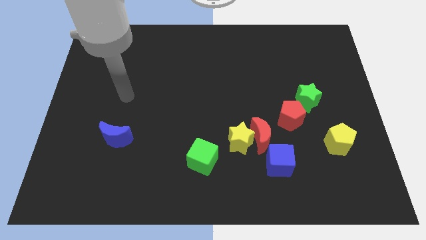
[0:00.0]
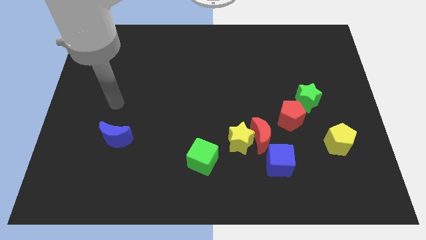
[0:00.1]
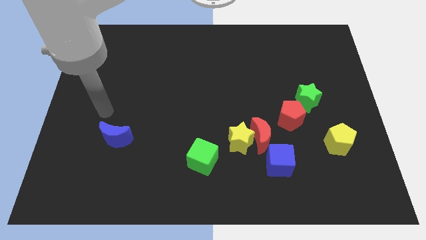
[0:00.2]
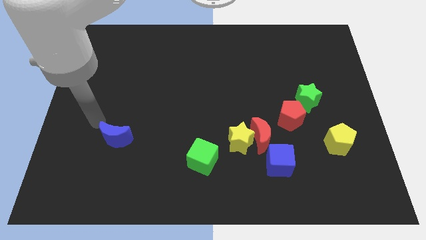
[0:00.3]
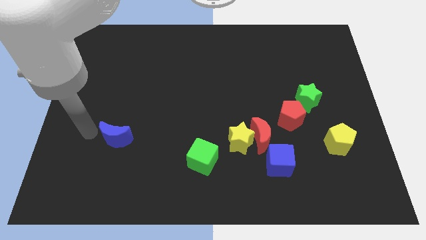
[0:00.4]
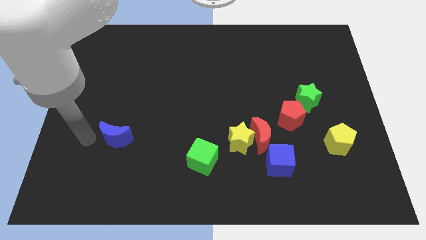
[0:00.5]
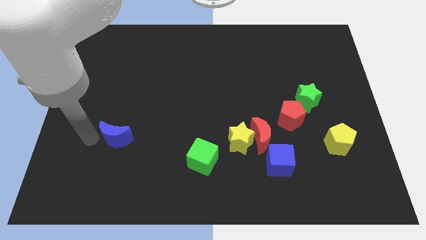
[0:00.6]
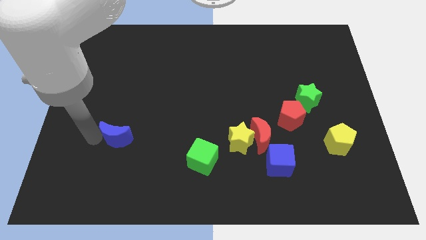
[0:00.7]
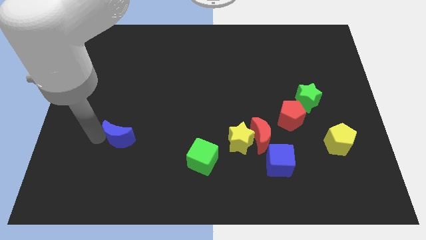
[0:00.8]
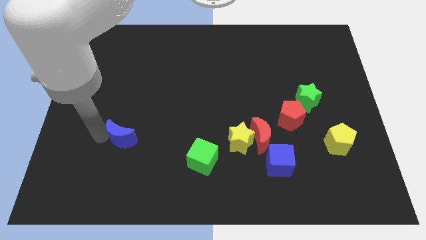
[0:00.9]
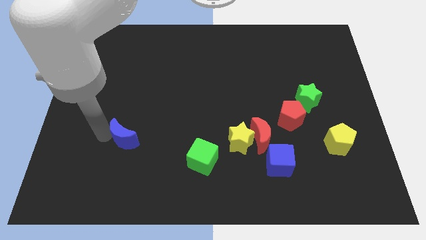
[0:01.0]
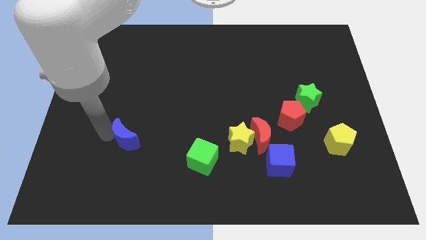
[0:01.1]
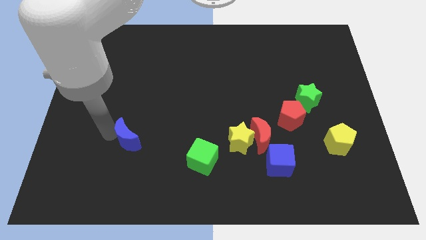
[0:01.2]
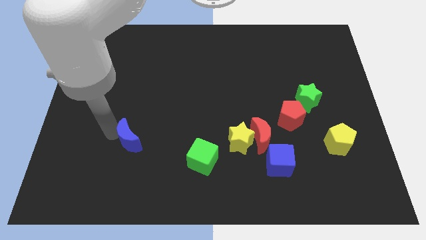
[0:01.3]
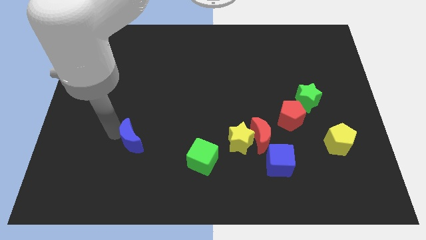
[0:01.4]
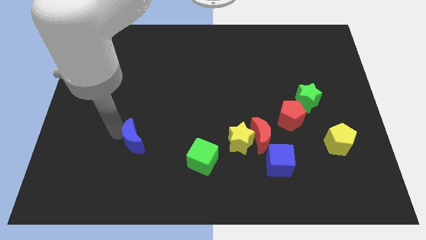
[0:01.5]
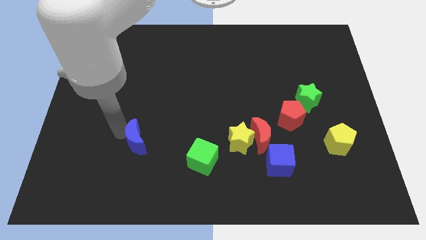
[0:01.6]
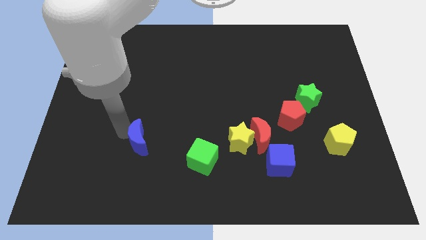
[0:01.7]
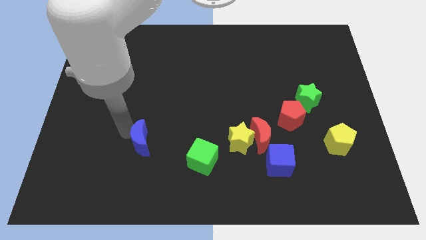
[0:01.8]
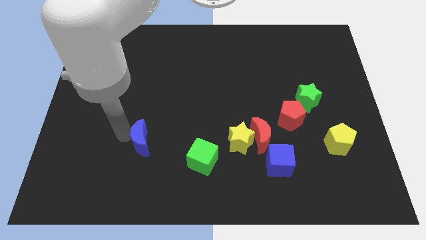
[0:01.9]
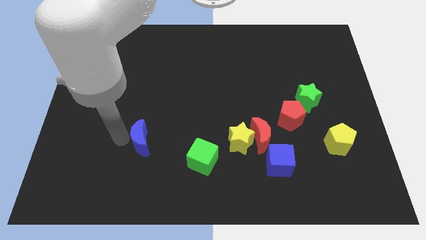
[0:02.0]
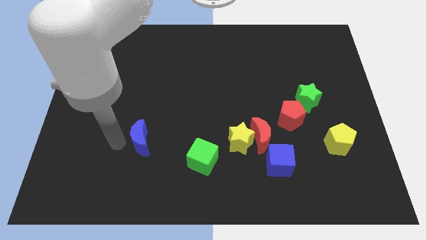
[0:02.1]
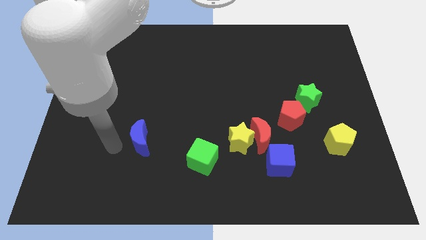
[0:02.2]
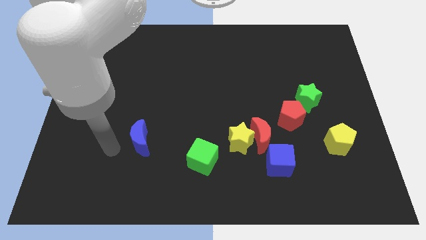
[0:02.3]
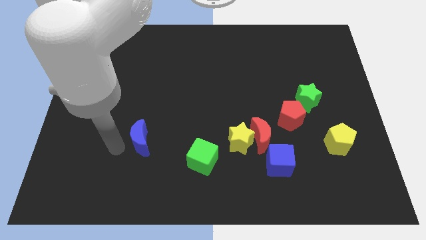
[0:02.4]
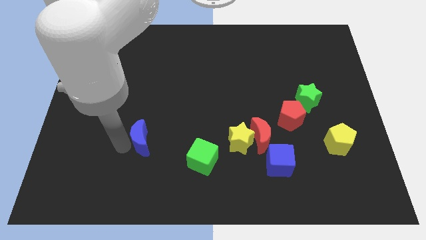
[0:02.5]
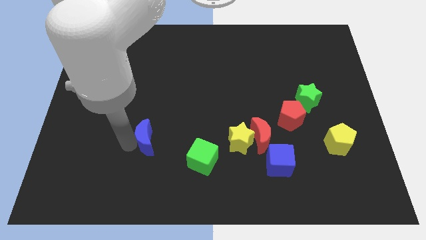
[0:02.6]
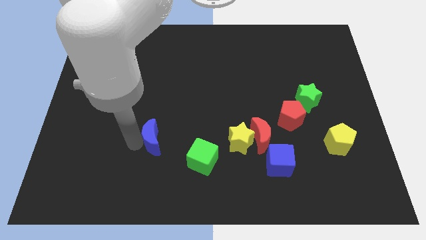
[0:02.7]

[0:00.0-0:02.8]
slide the blue moon somewhat right

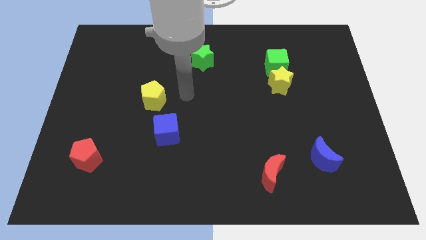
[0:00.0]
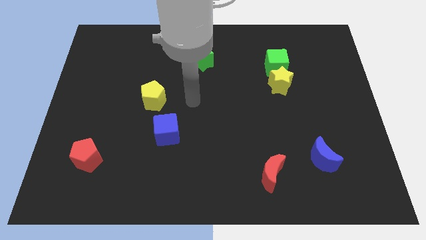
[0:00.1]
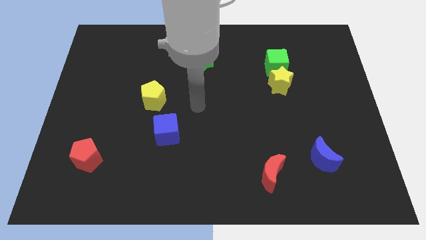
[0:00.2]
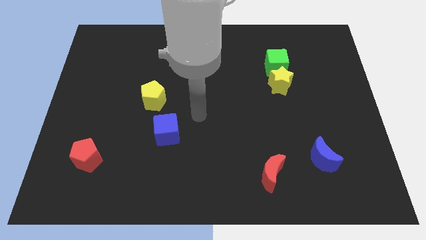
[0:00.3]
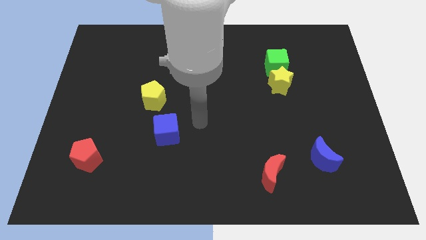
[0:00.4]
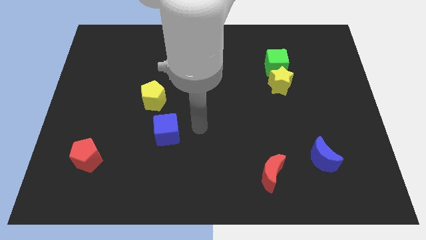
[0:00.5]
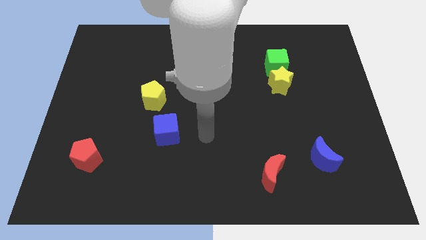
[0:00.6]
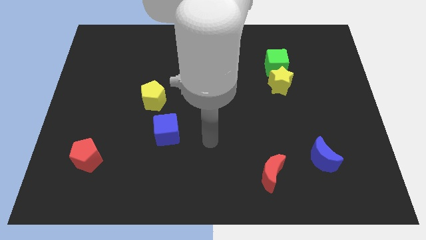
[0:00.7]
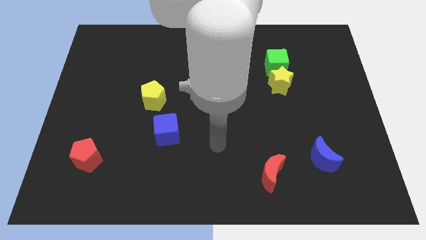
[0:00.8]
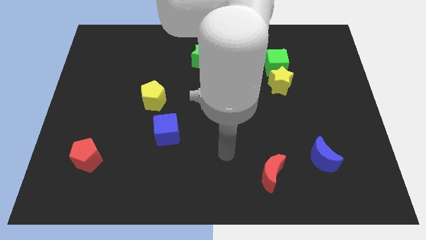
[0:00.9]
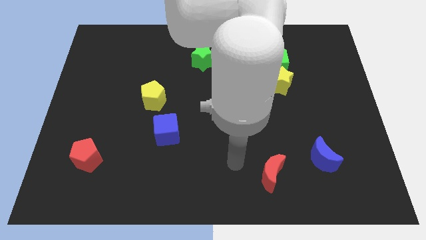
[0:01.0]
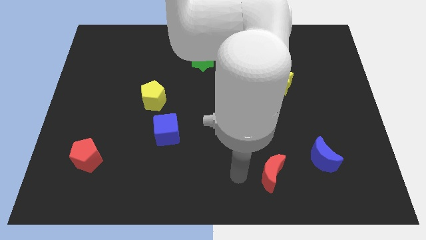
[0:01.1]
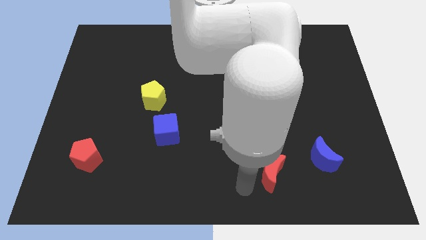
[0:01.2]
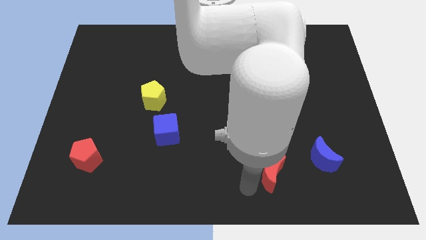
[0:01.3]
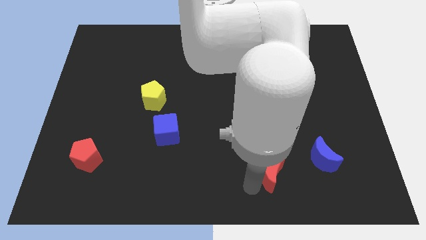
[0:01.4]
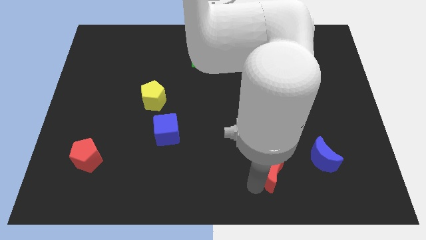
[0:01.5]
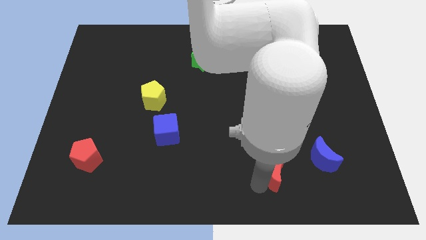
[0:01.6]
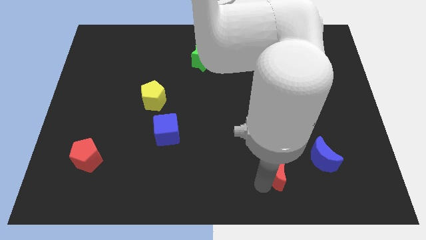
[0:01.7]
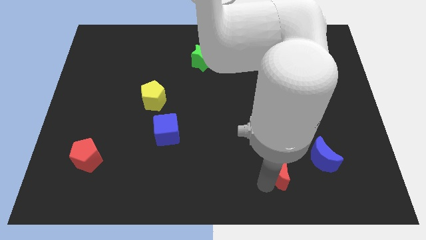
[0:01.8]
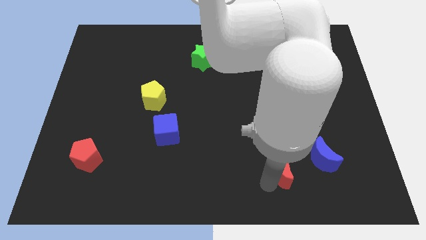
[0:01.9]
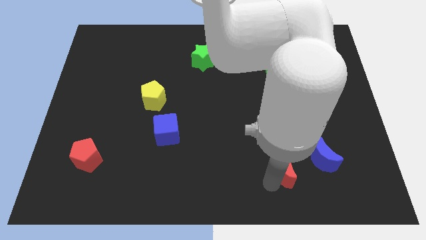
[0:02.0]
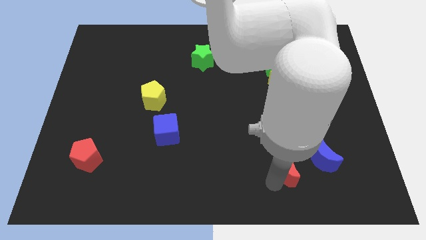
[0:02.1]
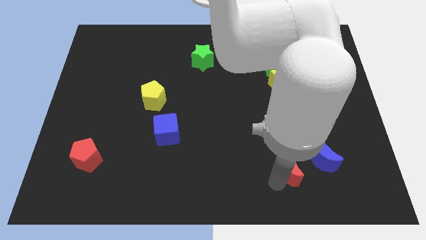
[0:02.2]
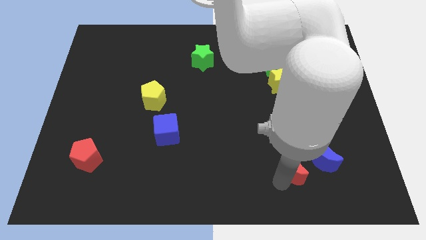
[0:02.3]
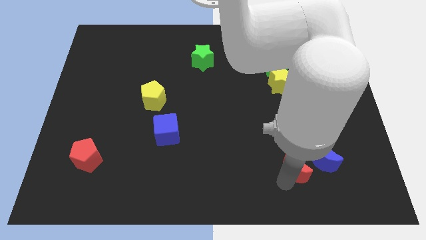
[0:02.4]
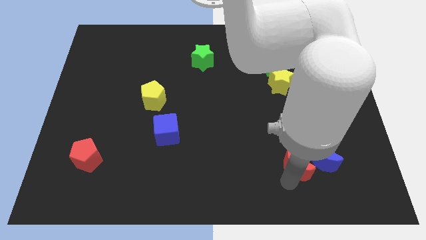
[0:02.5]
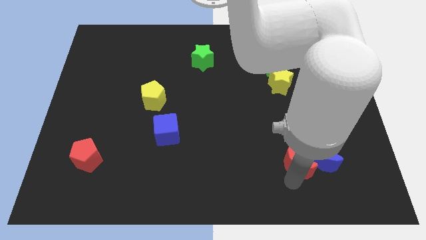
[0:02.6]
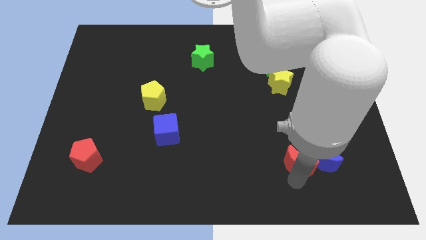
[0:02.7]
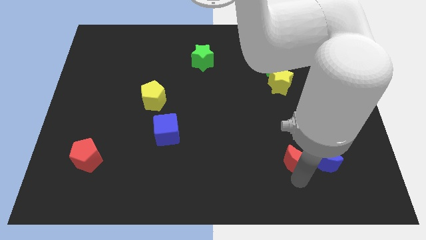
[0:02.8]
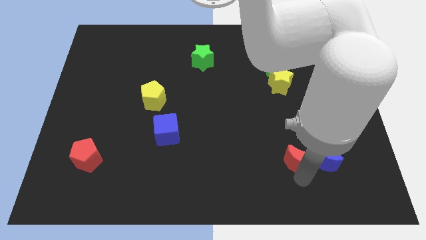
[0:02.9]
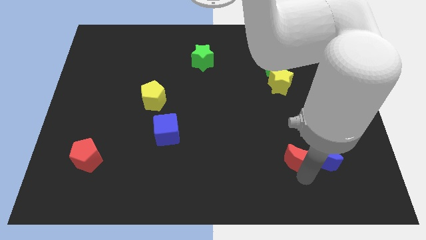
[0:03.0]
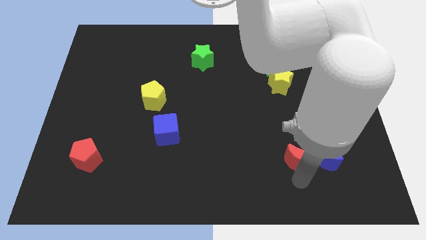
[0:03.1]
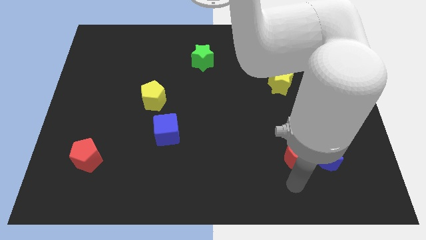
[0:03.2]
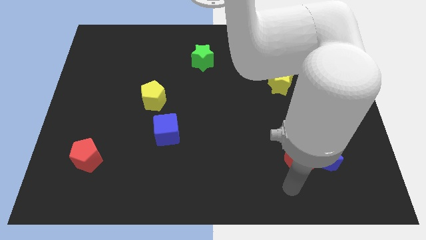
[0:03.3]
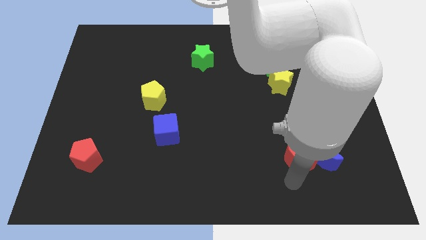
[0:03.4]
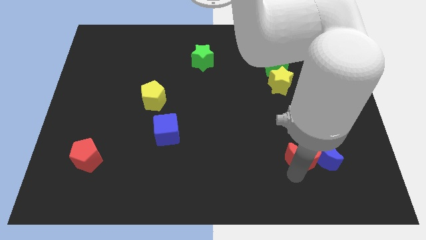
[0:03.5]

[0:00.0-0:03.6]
move the red moon up and to the right diagonally a little

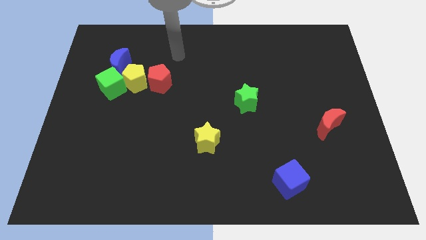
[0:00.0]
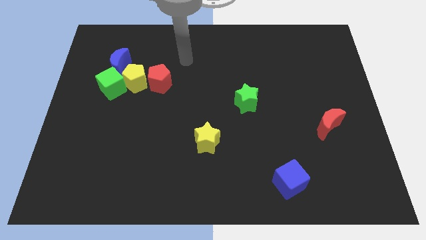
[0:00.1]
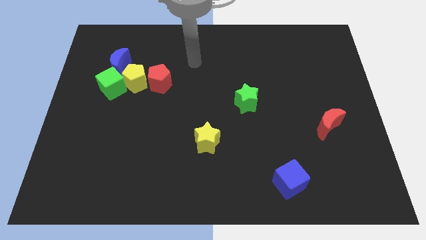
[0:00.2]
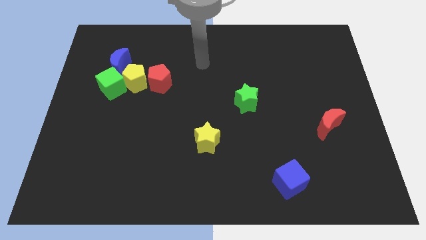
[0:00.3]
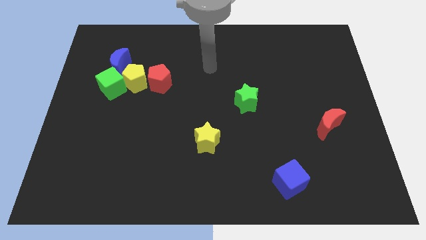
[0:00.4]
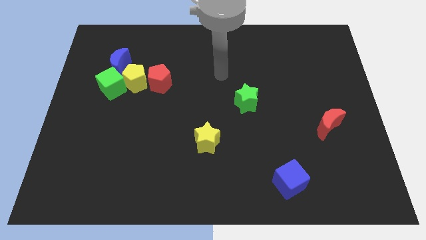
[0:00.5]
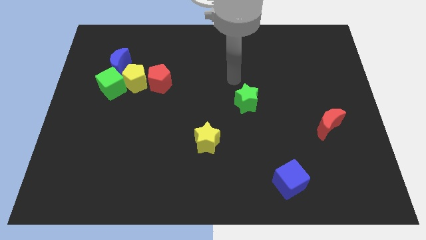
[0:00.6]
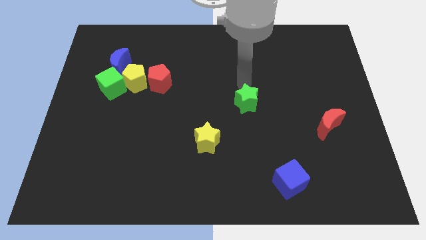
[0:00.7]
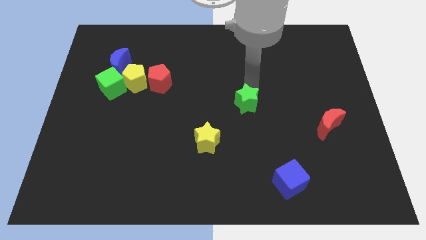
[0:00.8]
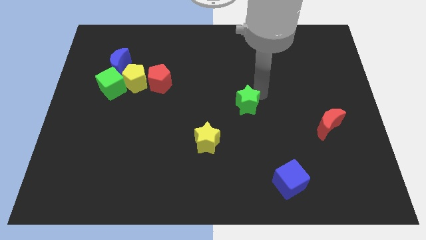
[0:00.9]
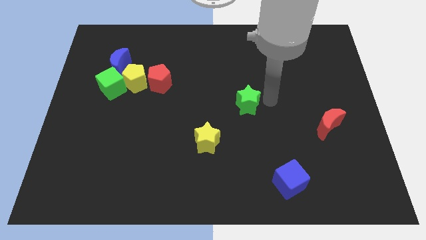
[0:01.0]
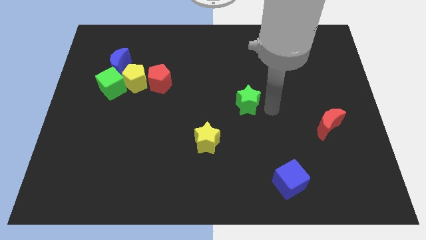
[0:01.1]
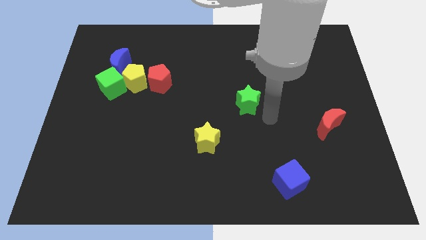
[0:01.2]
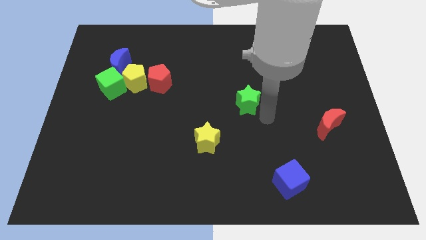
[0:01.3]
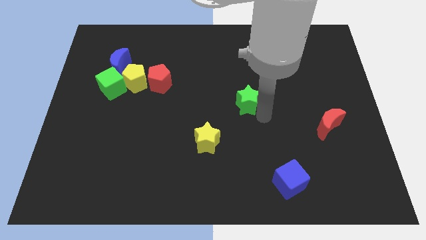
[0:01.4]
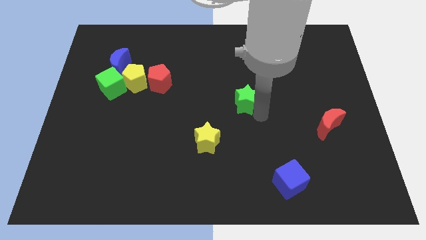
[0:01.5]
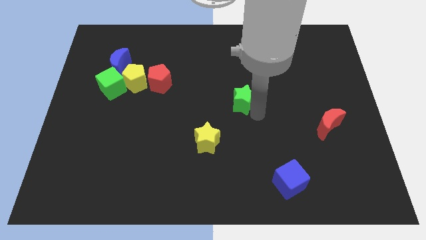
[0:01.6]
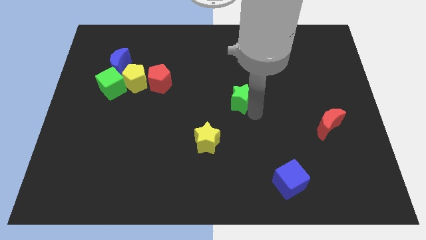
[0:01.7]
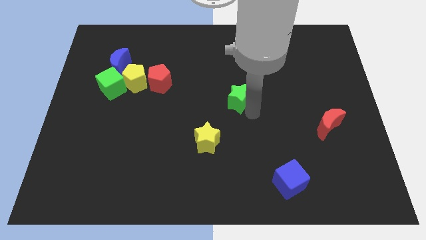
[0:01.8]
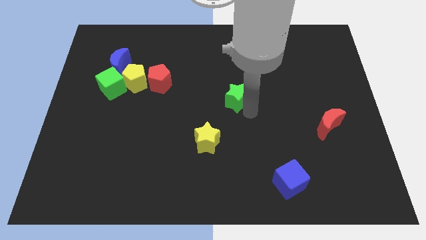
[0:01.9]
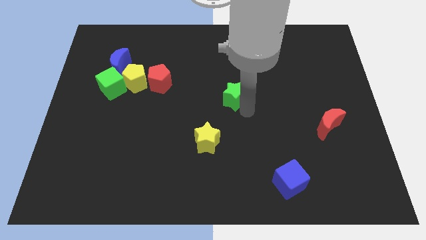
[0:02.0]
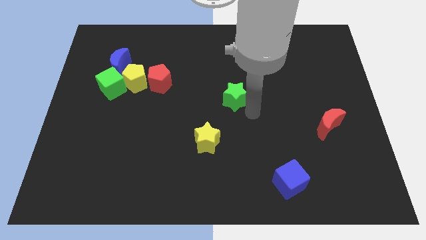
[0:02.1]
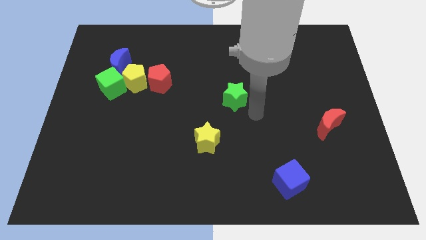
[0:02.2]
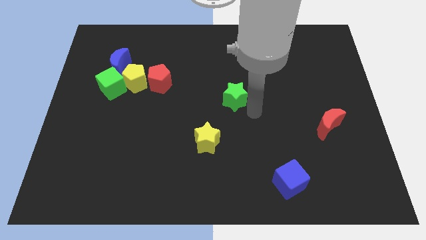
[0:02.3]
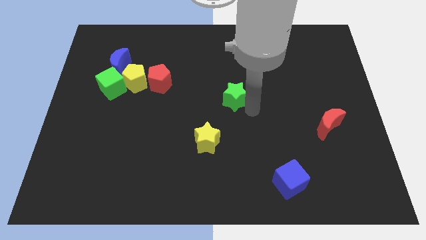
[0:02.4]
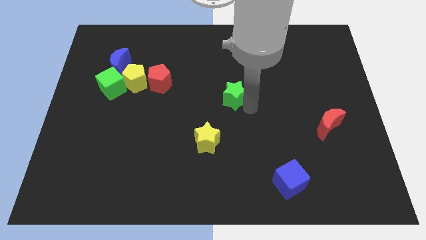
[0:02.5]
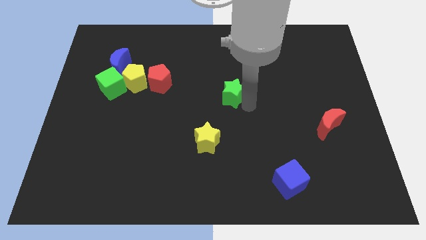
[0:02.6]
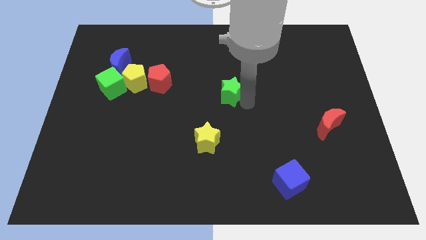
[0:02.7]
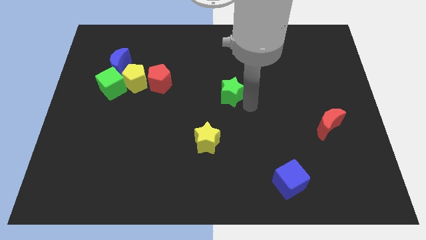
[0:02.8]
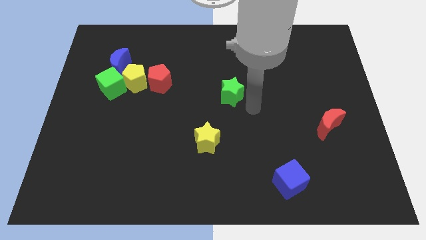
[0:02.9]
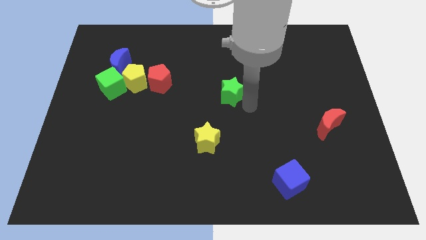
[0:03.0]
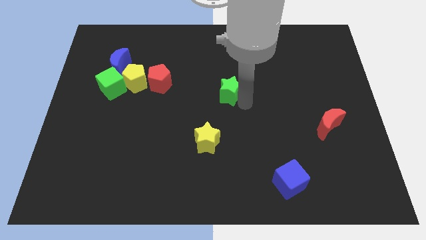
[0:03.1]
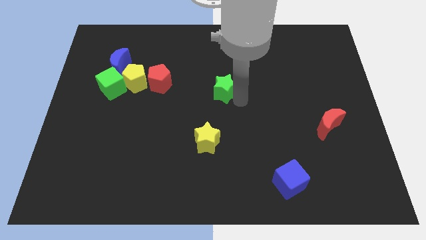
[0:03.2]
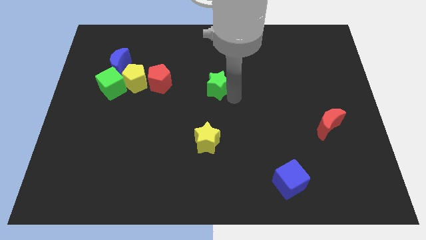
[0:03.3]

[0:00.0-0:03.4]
slide the green star up and then left slightly
